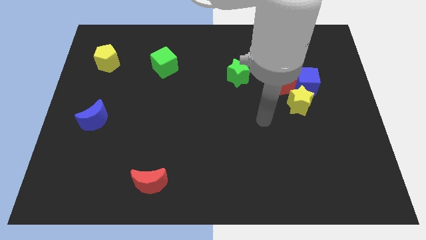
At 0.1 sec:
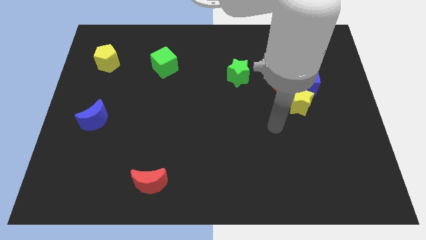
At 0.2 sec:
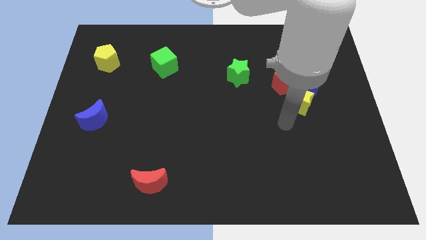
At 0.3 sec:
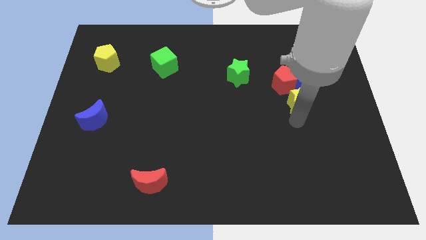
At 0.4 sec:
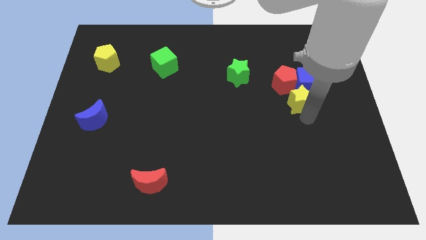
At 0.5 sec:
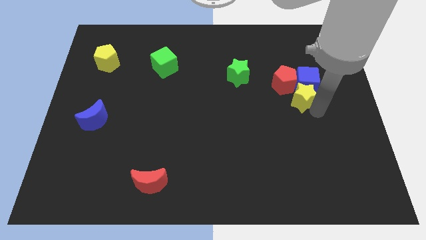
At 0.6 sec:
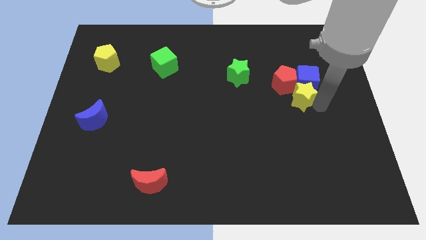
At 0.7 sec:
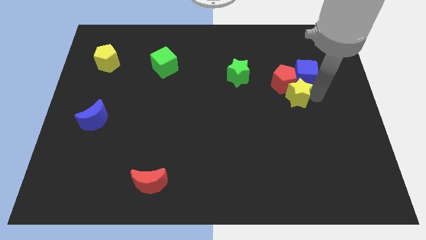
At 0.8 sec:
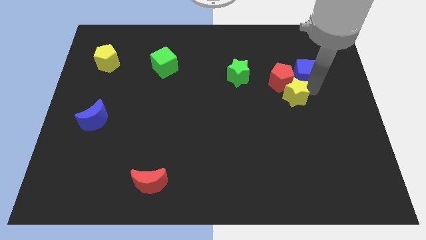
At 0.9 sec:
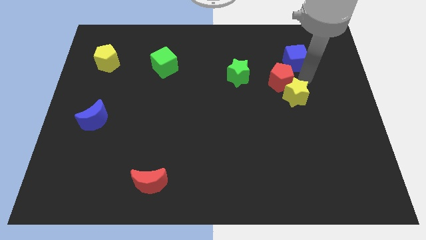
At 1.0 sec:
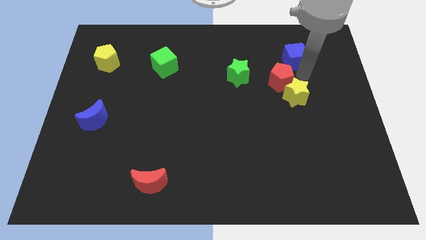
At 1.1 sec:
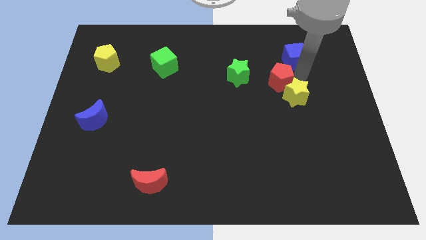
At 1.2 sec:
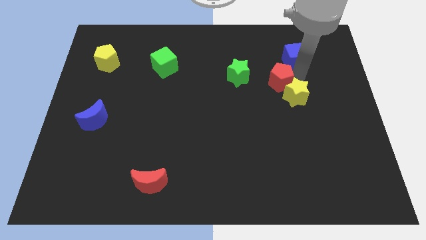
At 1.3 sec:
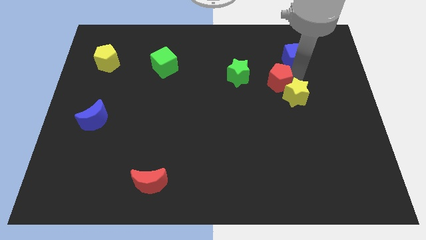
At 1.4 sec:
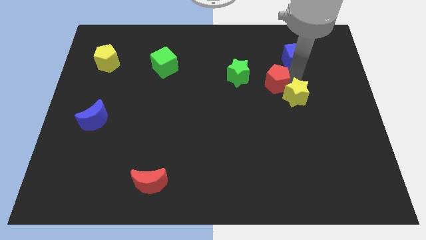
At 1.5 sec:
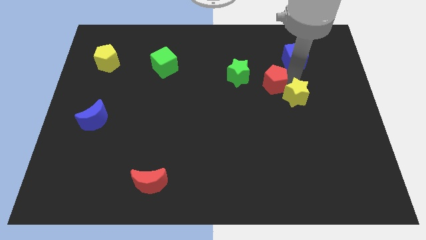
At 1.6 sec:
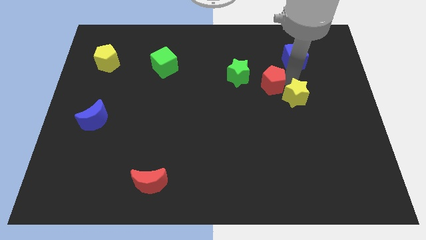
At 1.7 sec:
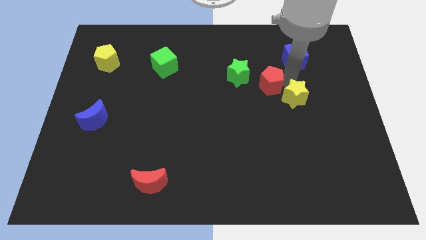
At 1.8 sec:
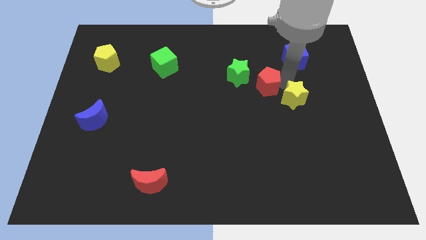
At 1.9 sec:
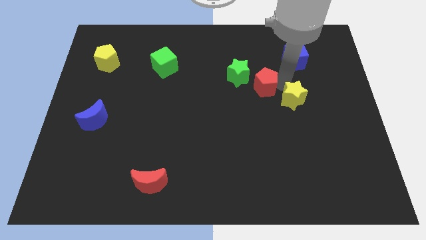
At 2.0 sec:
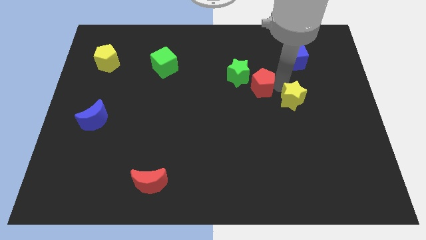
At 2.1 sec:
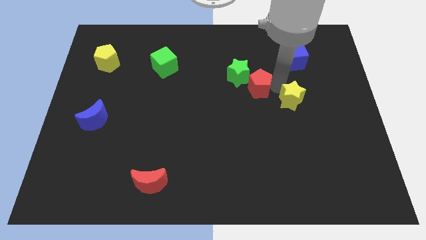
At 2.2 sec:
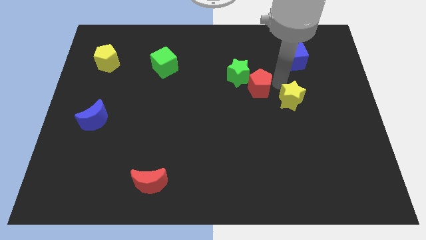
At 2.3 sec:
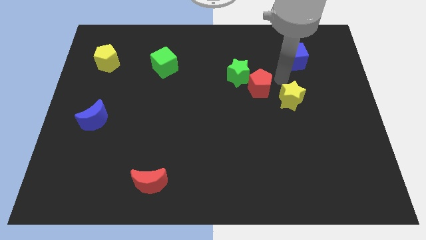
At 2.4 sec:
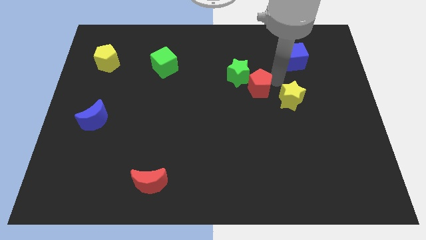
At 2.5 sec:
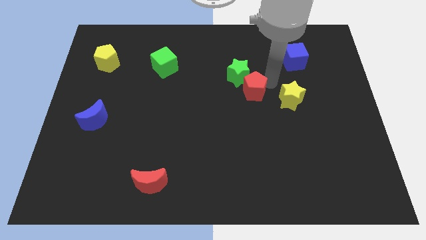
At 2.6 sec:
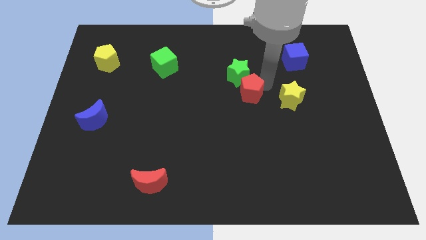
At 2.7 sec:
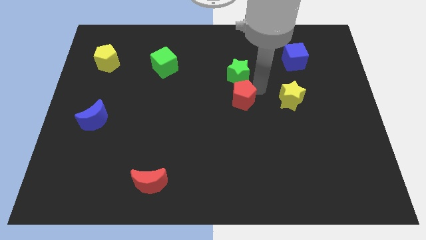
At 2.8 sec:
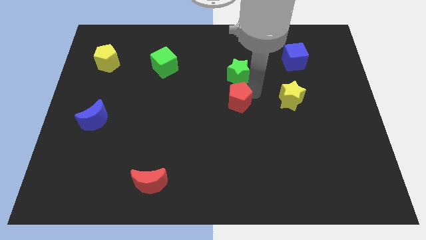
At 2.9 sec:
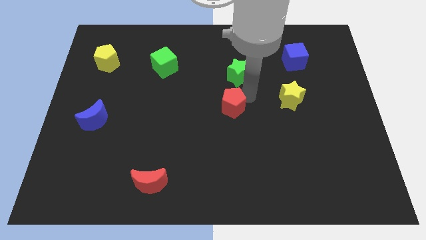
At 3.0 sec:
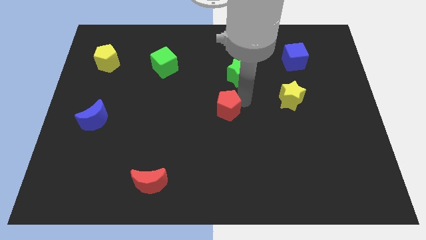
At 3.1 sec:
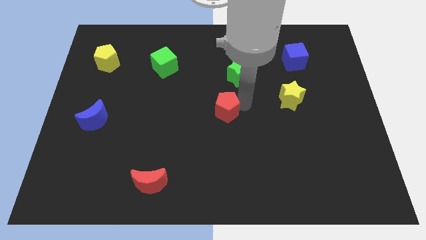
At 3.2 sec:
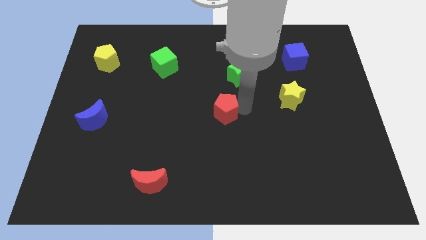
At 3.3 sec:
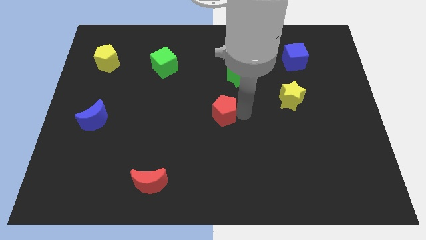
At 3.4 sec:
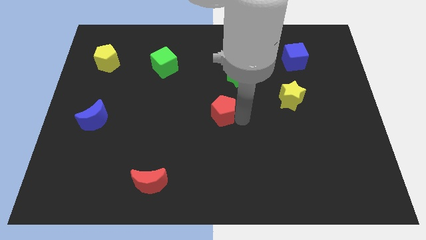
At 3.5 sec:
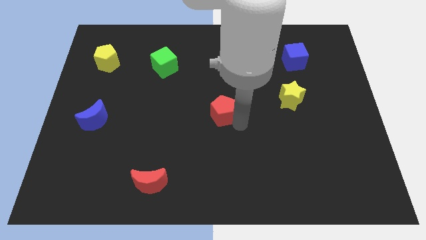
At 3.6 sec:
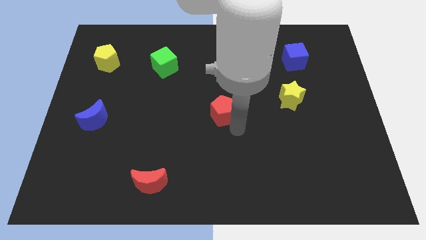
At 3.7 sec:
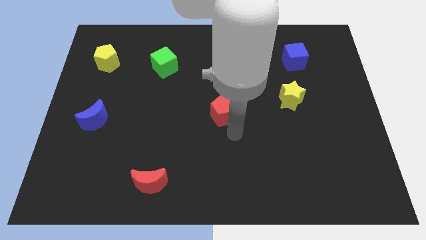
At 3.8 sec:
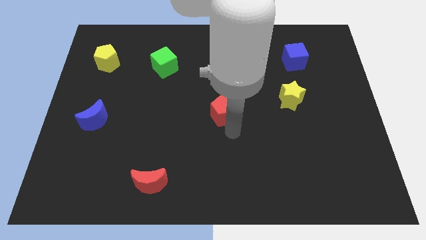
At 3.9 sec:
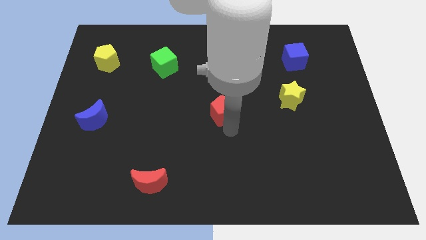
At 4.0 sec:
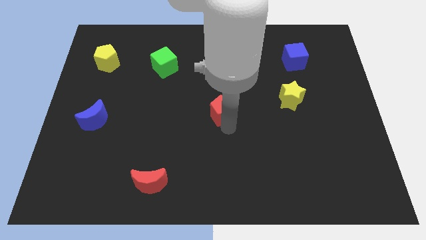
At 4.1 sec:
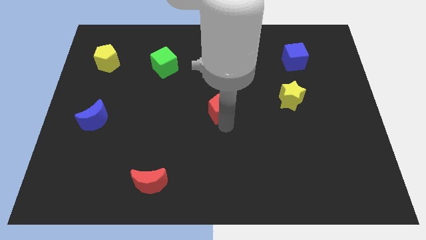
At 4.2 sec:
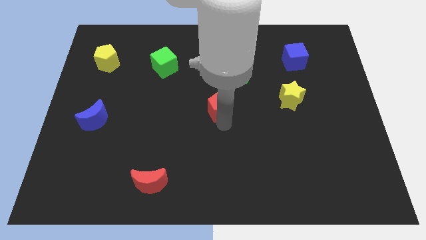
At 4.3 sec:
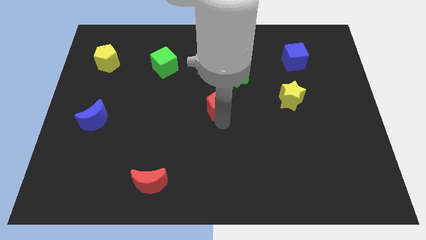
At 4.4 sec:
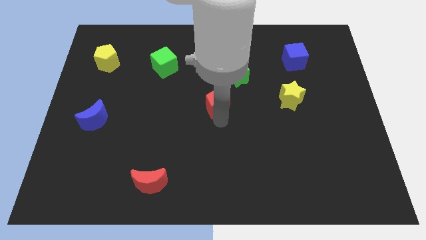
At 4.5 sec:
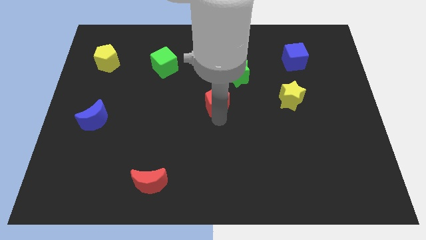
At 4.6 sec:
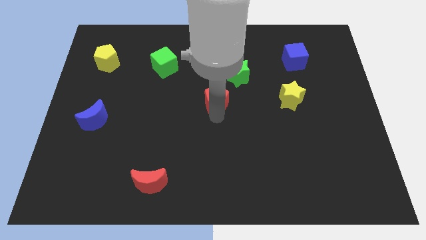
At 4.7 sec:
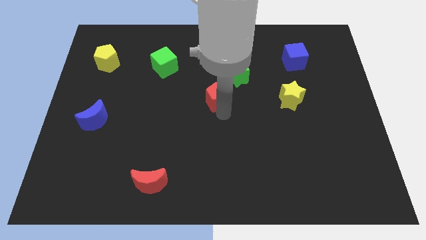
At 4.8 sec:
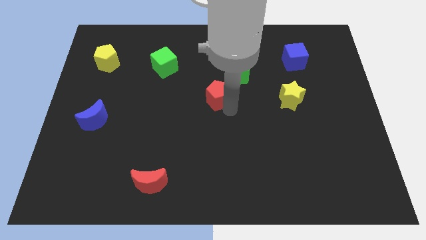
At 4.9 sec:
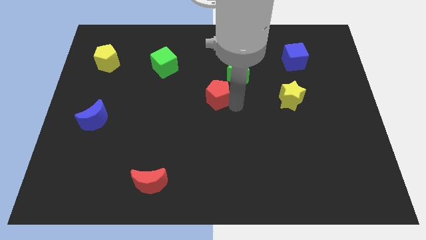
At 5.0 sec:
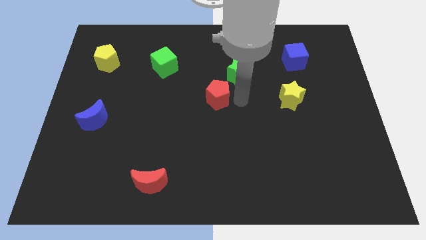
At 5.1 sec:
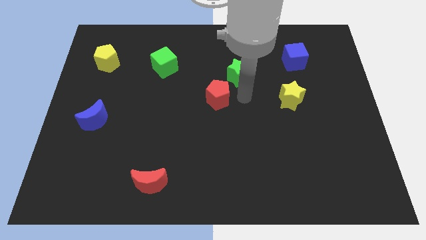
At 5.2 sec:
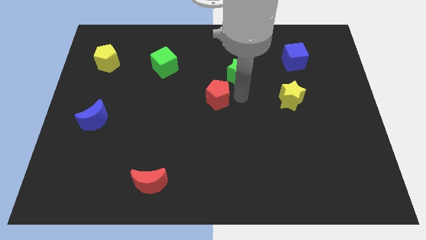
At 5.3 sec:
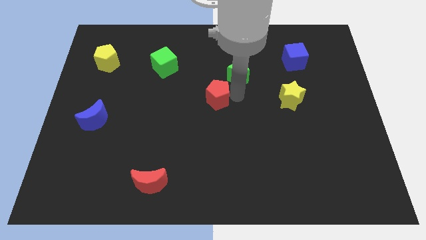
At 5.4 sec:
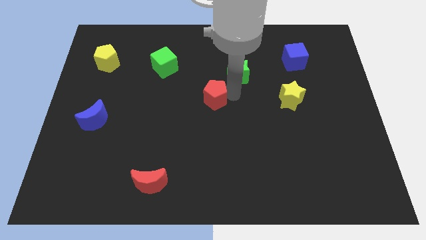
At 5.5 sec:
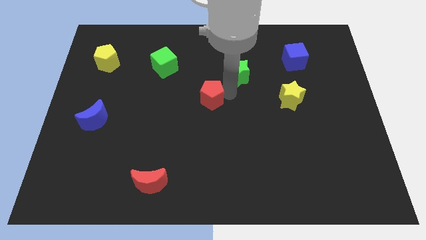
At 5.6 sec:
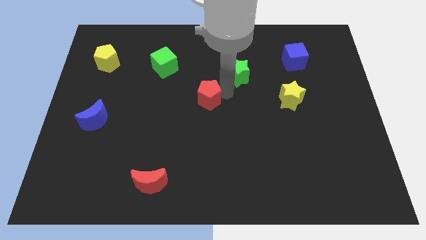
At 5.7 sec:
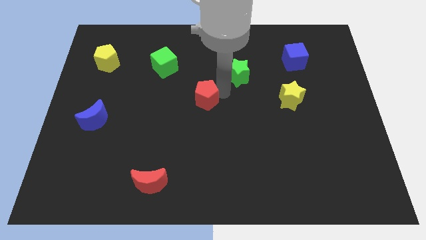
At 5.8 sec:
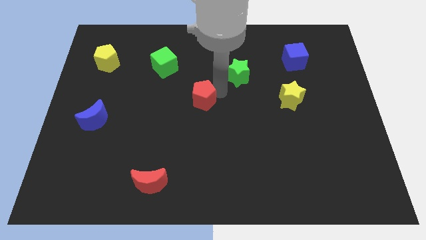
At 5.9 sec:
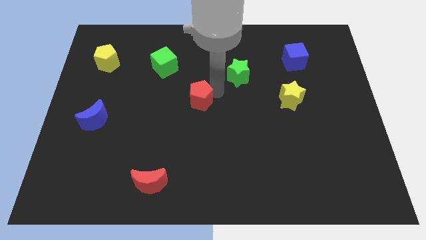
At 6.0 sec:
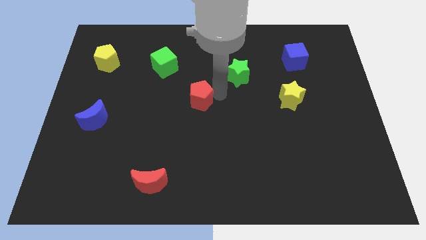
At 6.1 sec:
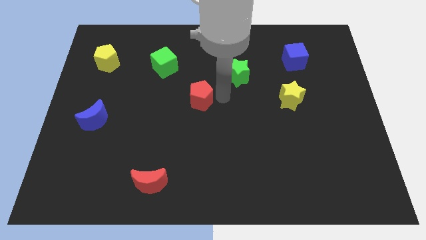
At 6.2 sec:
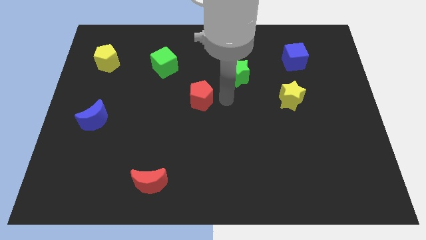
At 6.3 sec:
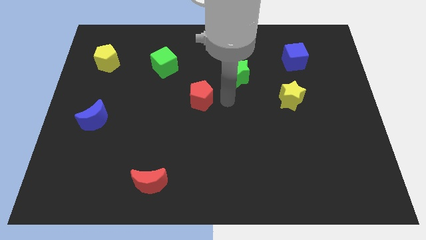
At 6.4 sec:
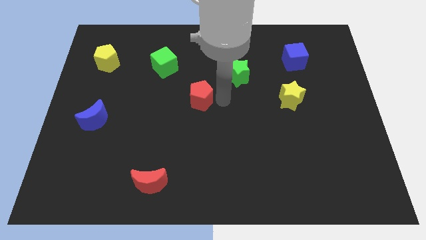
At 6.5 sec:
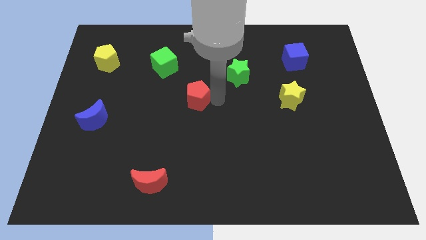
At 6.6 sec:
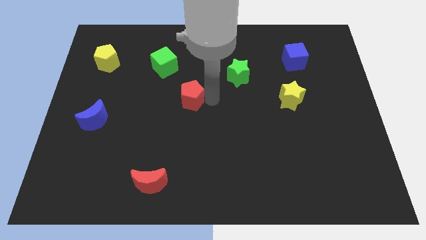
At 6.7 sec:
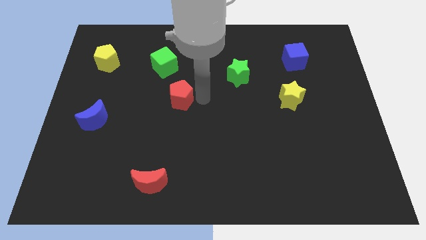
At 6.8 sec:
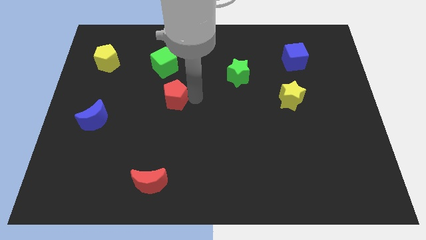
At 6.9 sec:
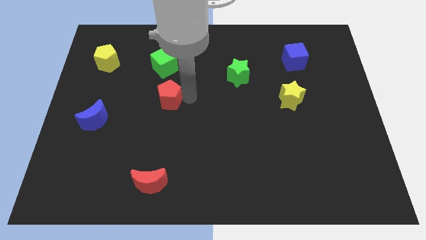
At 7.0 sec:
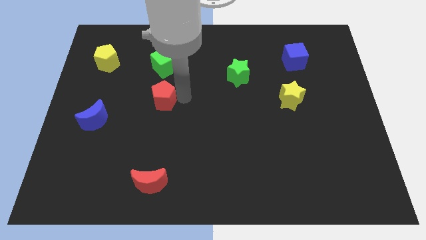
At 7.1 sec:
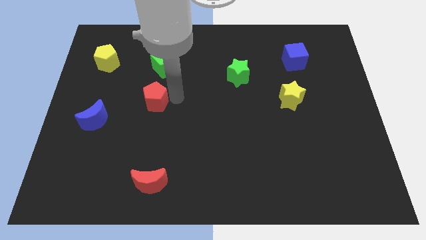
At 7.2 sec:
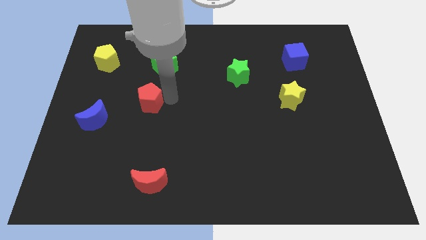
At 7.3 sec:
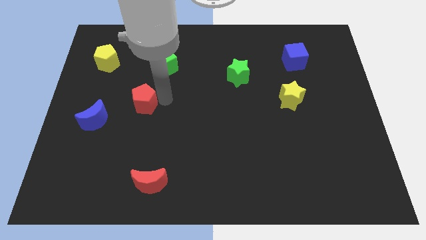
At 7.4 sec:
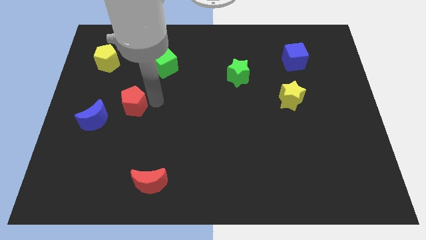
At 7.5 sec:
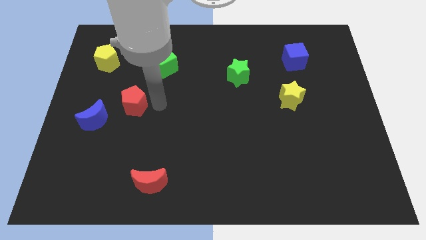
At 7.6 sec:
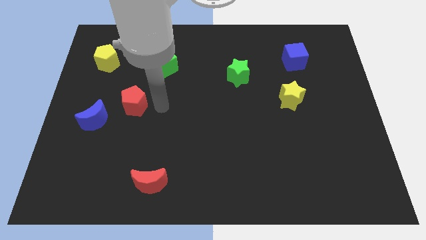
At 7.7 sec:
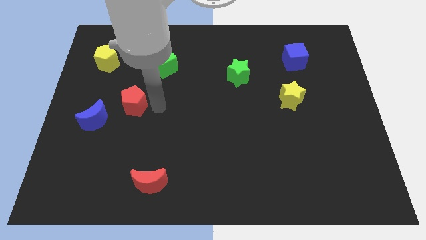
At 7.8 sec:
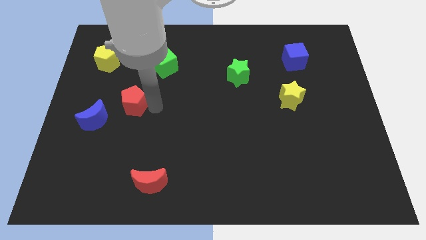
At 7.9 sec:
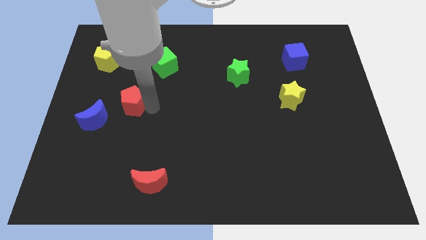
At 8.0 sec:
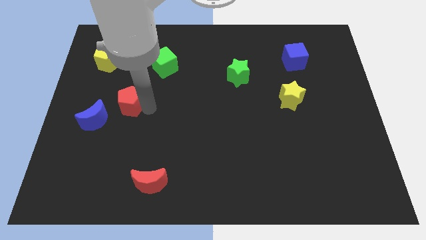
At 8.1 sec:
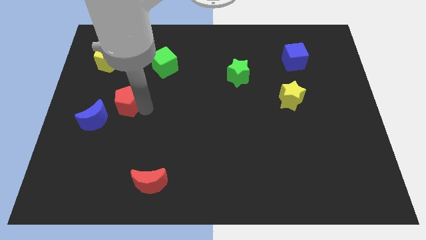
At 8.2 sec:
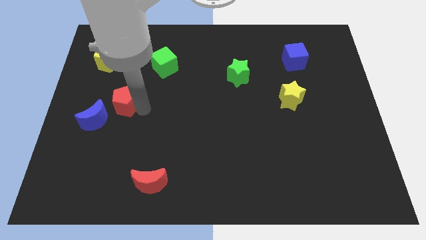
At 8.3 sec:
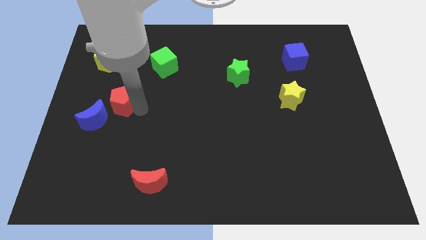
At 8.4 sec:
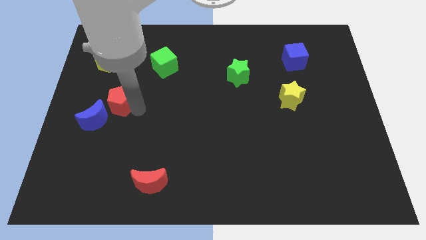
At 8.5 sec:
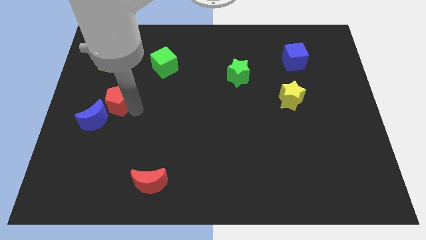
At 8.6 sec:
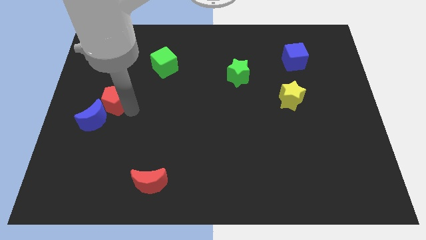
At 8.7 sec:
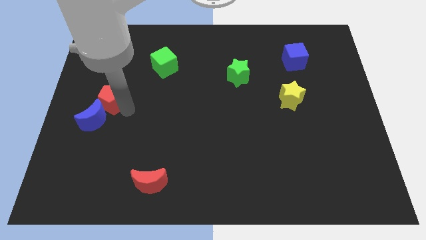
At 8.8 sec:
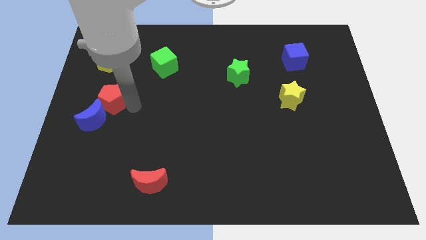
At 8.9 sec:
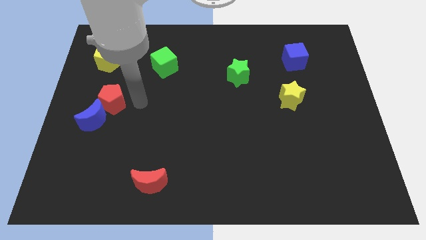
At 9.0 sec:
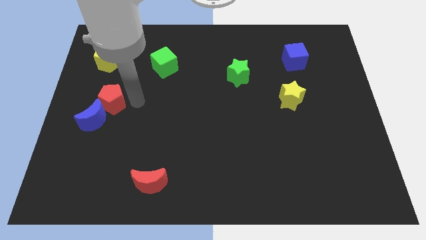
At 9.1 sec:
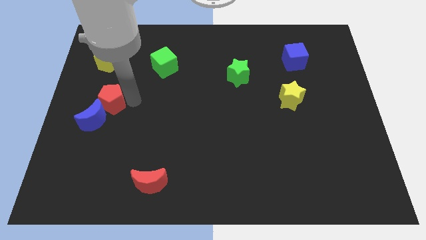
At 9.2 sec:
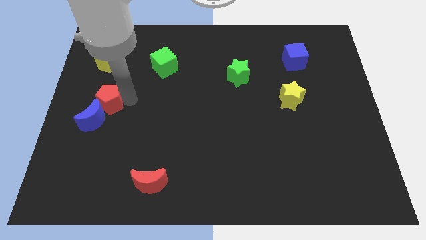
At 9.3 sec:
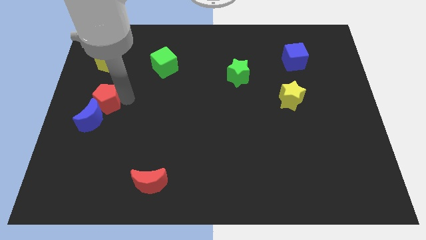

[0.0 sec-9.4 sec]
push the red pentagon to the center left
